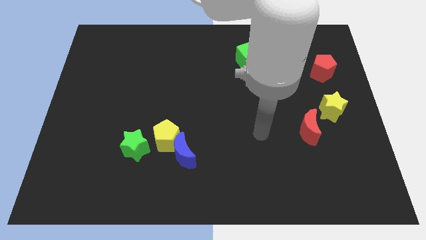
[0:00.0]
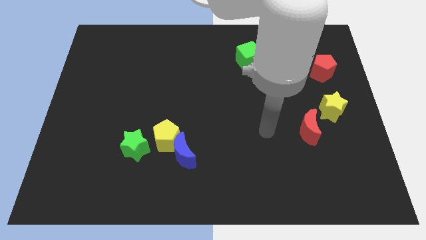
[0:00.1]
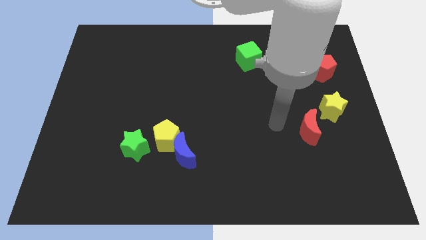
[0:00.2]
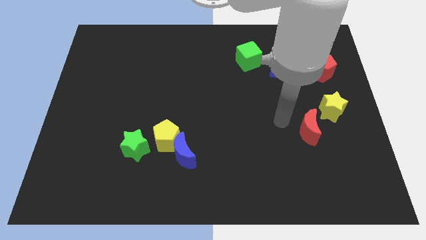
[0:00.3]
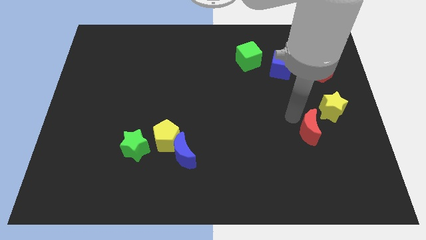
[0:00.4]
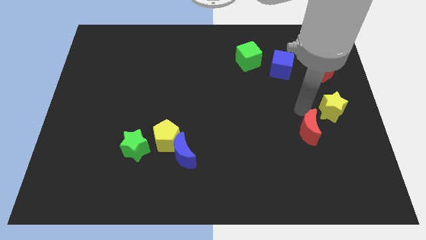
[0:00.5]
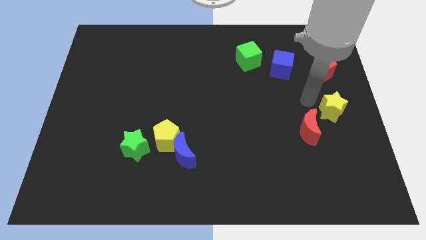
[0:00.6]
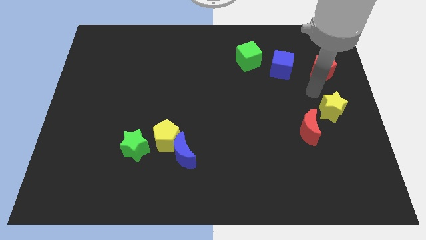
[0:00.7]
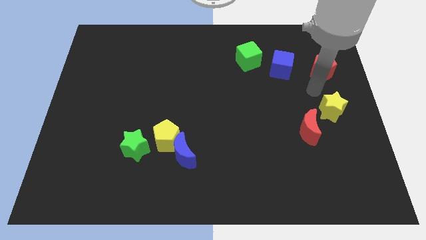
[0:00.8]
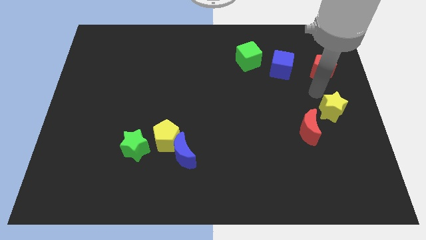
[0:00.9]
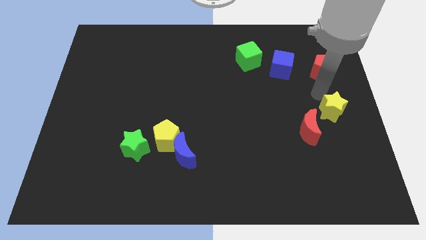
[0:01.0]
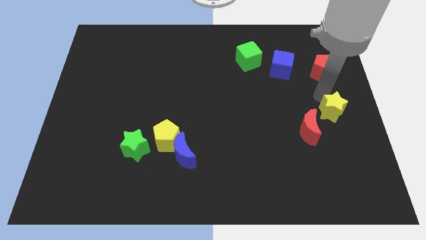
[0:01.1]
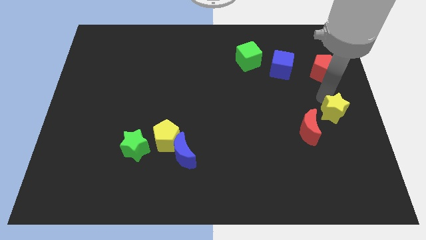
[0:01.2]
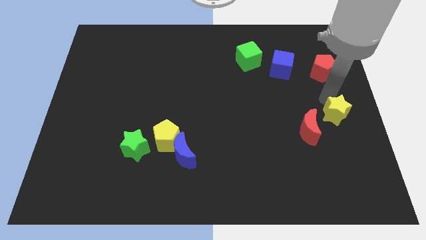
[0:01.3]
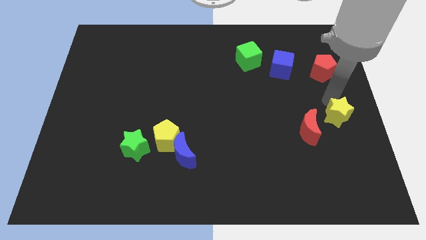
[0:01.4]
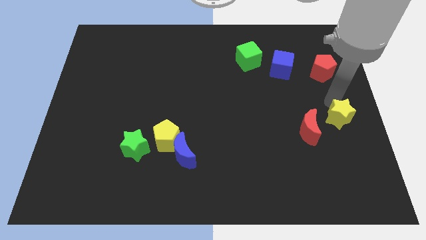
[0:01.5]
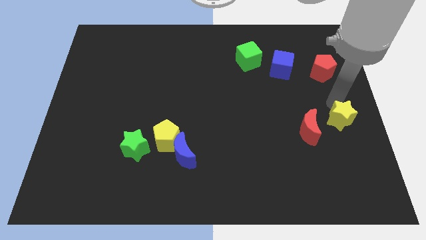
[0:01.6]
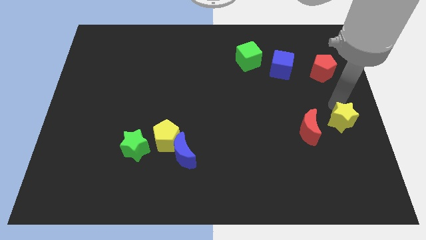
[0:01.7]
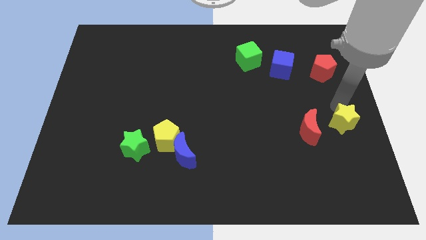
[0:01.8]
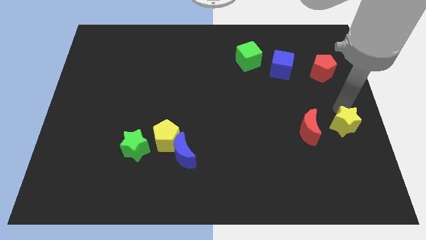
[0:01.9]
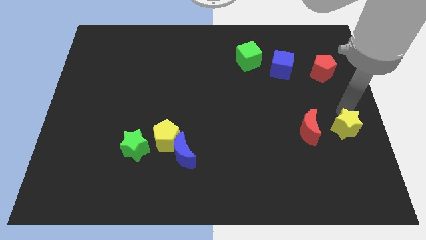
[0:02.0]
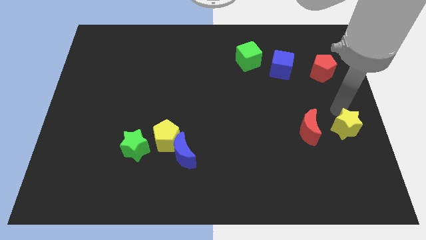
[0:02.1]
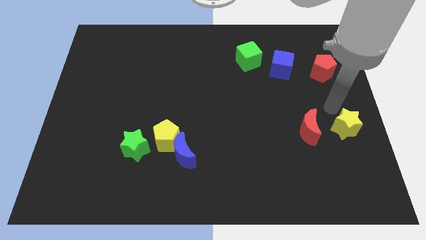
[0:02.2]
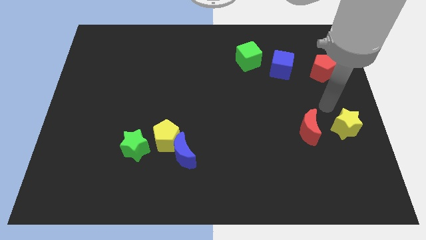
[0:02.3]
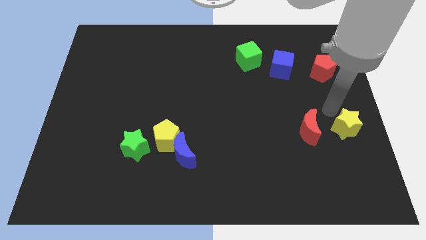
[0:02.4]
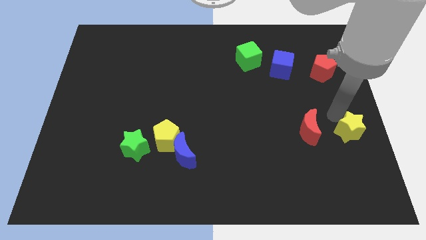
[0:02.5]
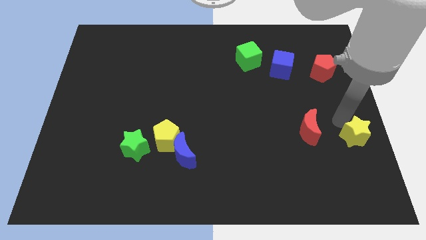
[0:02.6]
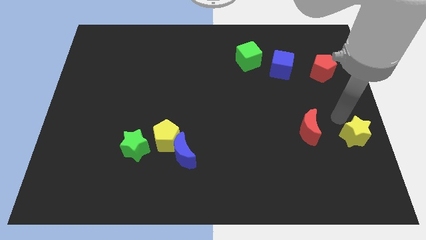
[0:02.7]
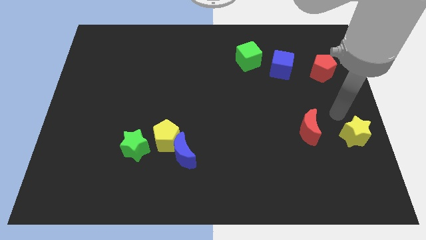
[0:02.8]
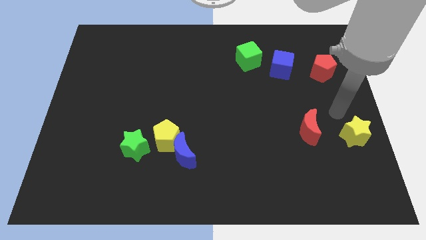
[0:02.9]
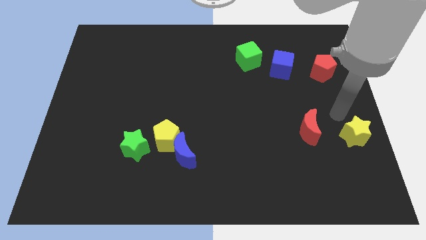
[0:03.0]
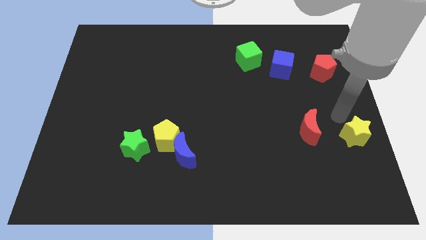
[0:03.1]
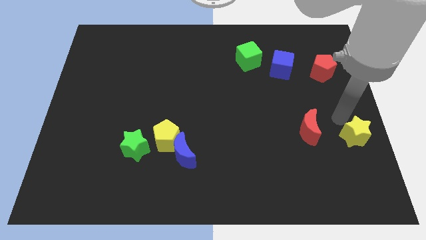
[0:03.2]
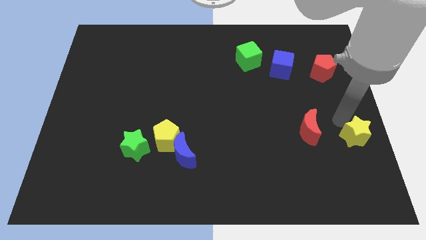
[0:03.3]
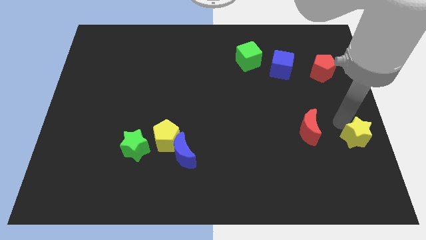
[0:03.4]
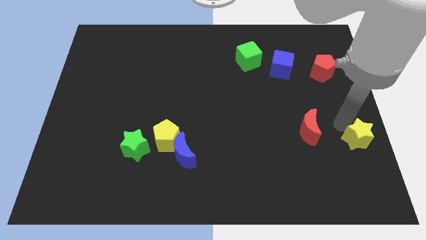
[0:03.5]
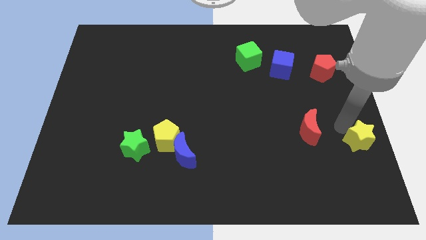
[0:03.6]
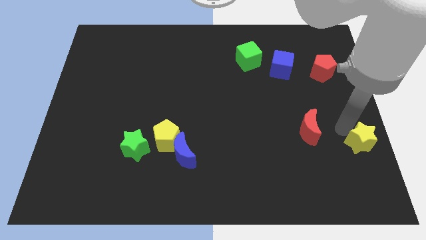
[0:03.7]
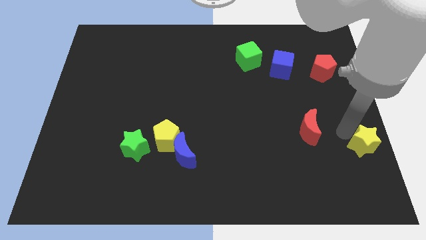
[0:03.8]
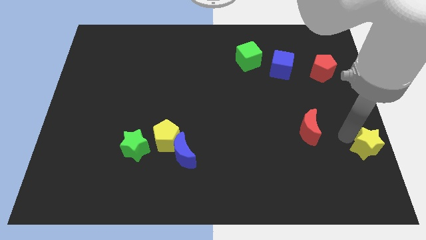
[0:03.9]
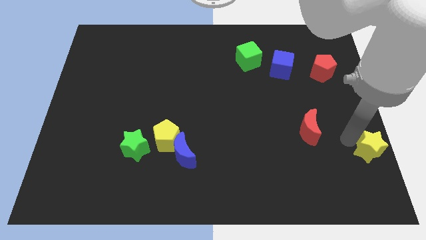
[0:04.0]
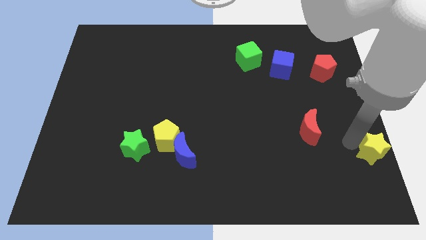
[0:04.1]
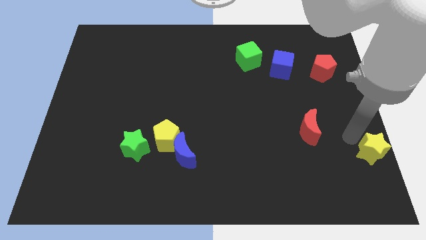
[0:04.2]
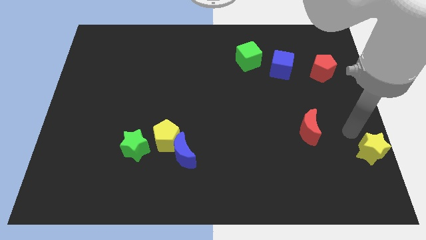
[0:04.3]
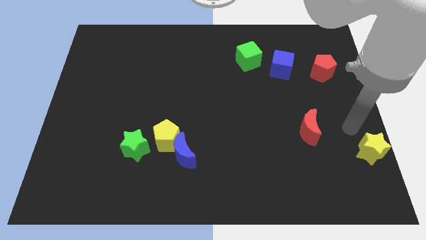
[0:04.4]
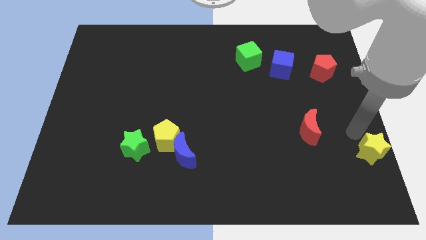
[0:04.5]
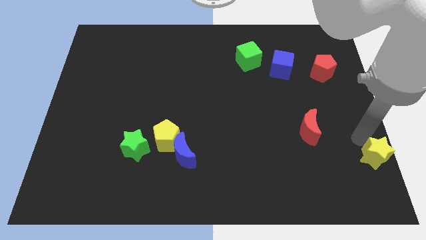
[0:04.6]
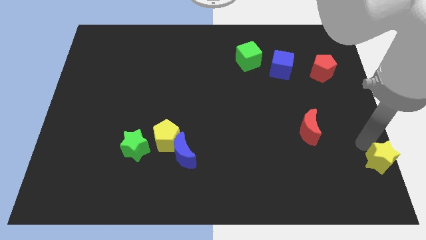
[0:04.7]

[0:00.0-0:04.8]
push the yellow star to the lower right corner
